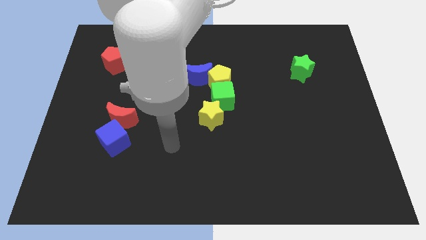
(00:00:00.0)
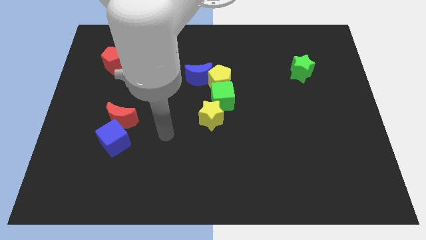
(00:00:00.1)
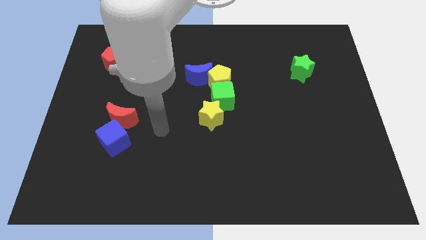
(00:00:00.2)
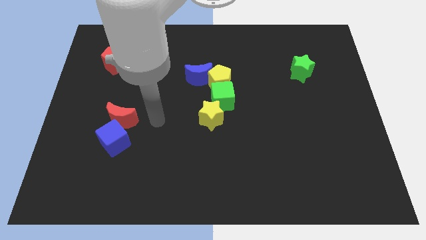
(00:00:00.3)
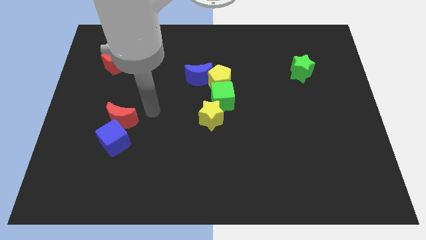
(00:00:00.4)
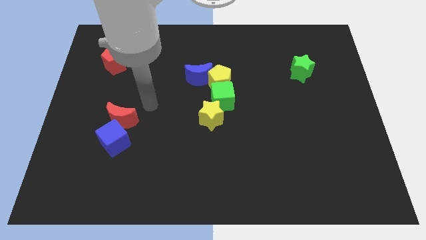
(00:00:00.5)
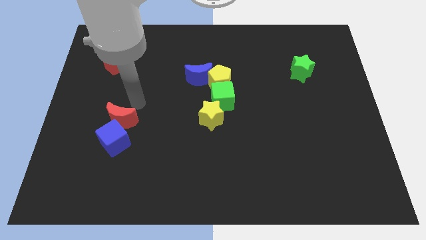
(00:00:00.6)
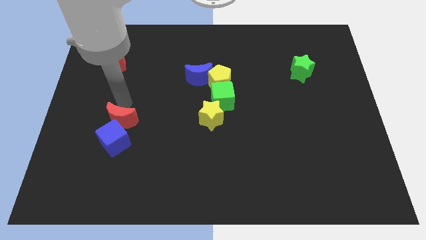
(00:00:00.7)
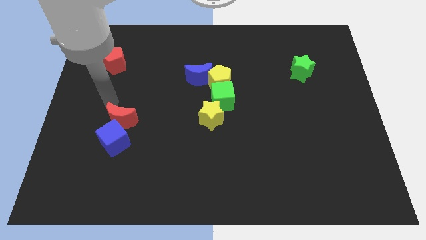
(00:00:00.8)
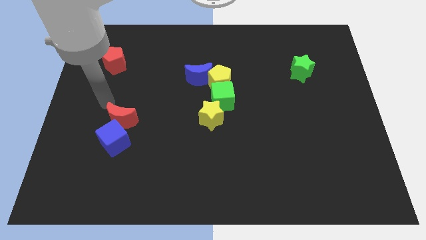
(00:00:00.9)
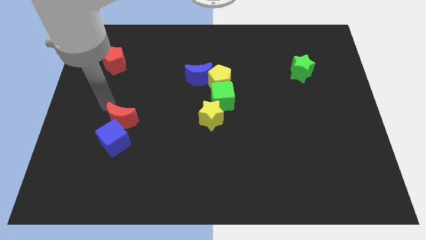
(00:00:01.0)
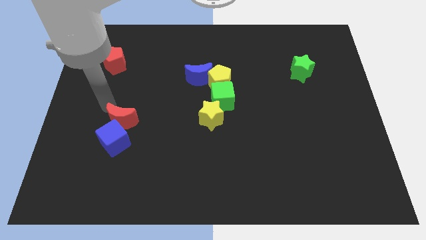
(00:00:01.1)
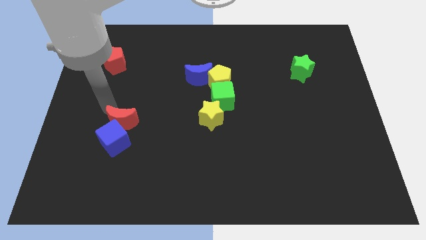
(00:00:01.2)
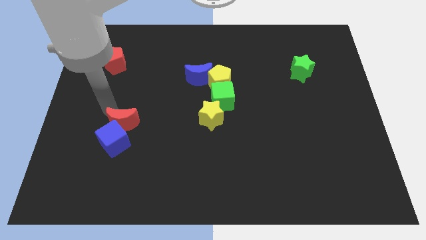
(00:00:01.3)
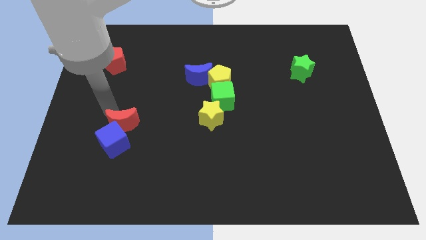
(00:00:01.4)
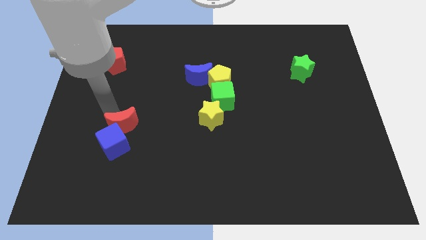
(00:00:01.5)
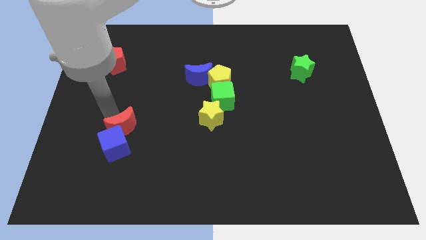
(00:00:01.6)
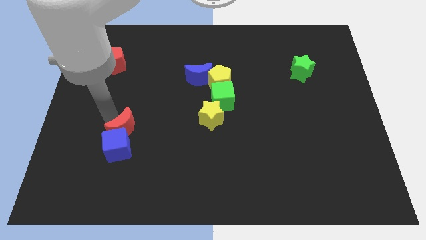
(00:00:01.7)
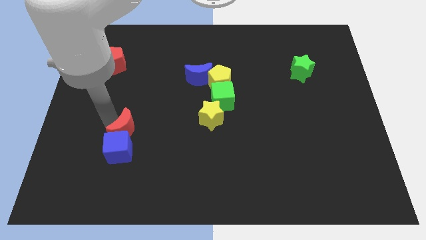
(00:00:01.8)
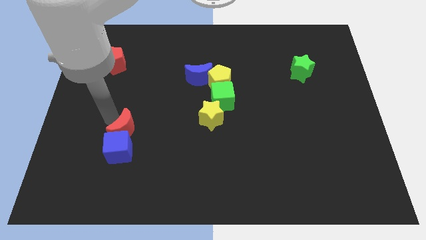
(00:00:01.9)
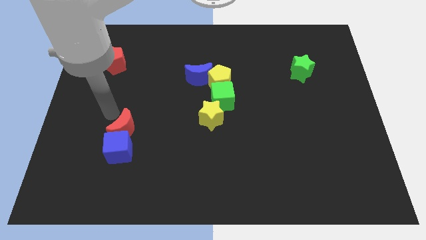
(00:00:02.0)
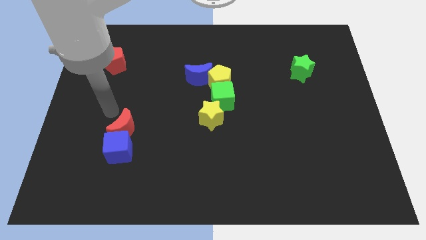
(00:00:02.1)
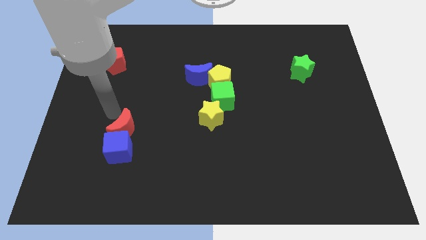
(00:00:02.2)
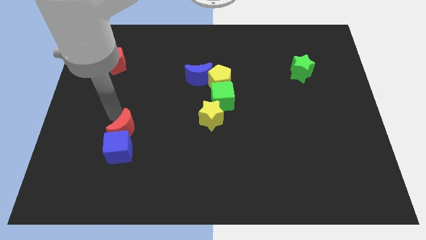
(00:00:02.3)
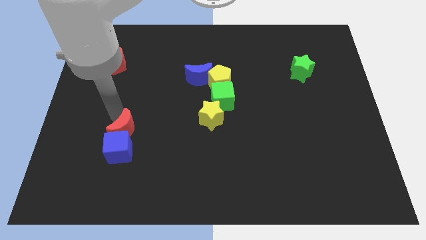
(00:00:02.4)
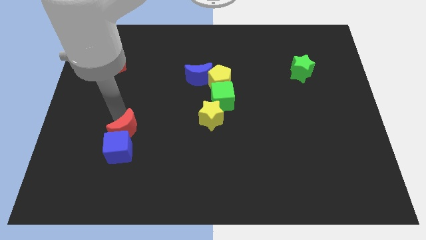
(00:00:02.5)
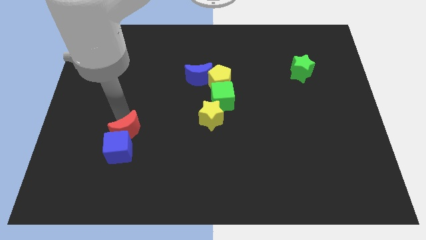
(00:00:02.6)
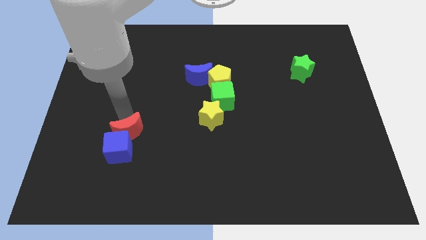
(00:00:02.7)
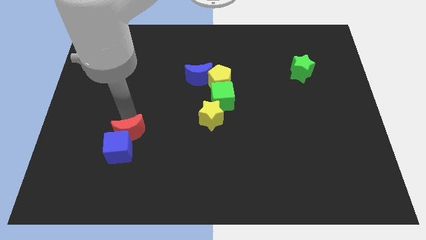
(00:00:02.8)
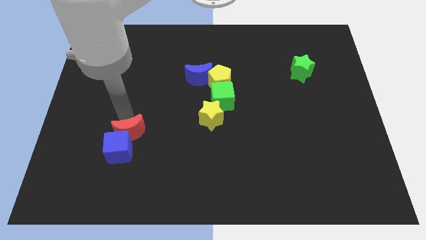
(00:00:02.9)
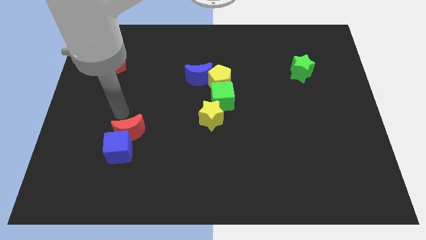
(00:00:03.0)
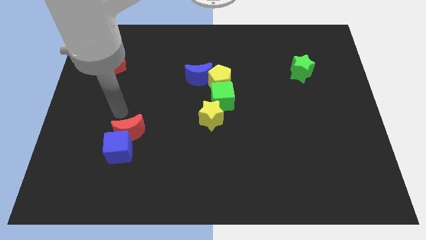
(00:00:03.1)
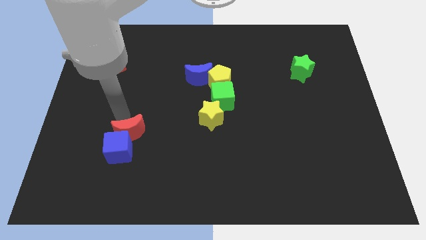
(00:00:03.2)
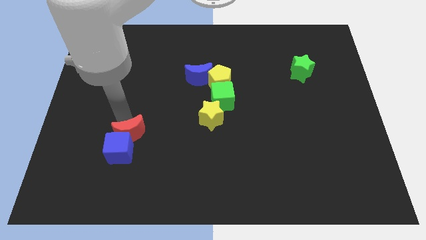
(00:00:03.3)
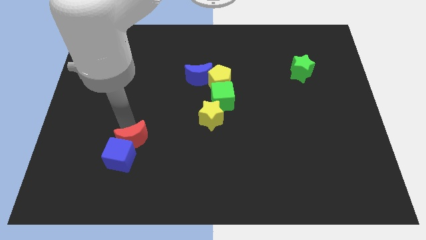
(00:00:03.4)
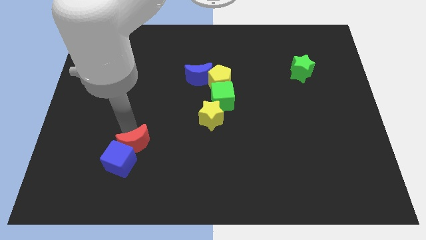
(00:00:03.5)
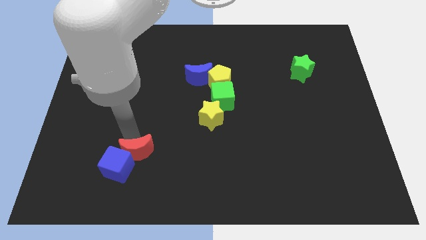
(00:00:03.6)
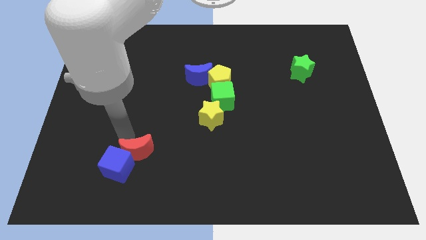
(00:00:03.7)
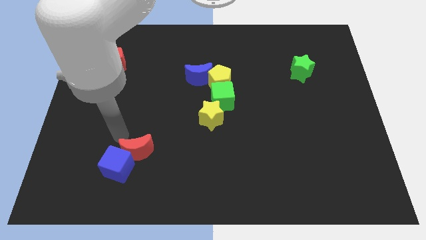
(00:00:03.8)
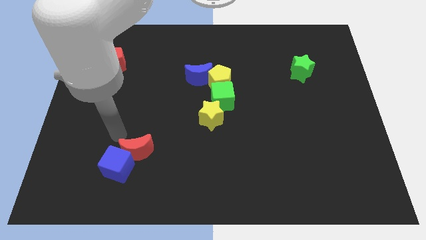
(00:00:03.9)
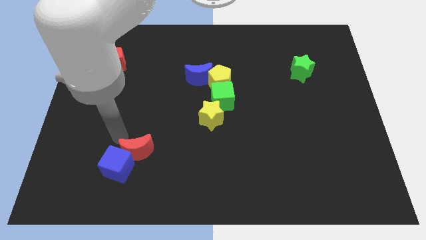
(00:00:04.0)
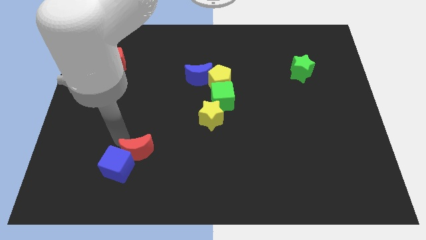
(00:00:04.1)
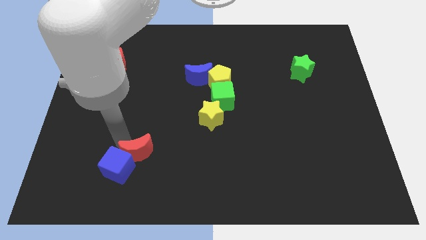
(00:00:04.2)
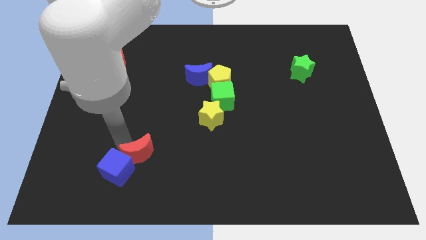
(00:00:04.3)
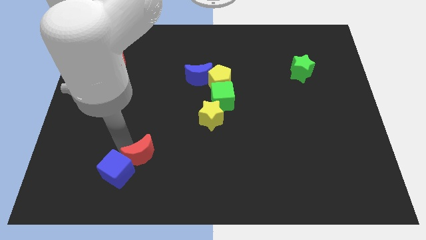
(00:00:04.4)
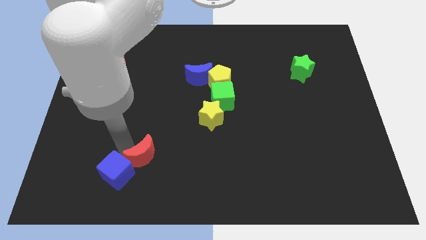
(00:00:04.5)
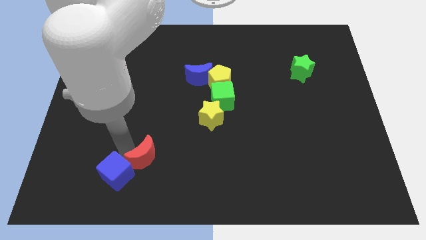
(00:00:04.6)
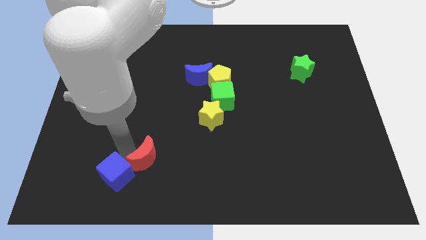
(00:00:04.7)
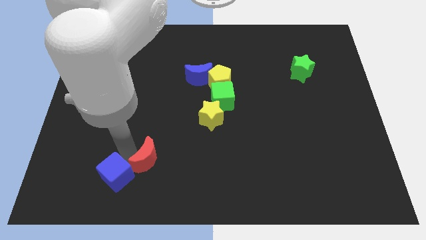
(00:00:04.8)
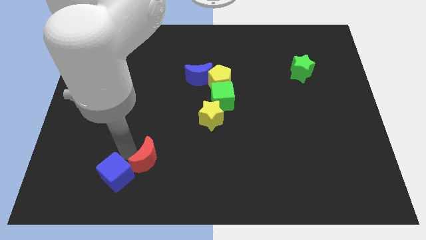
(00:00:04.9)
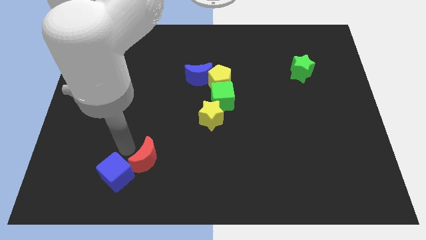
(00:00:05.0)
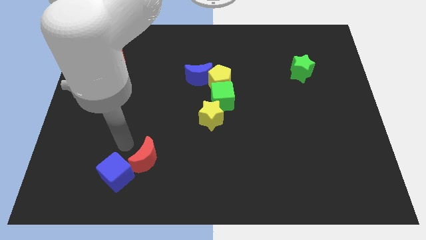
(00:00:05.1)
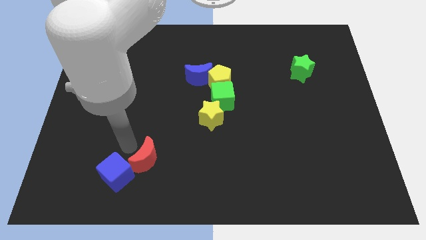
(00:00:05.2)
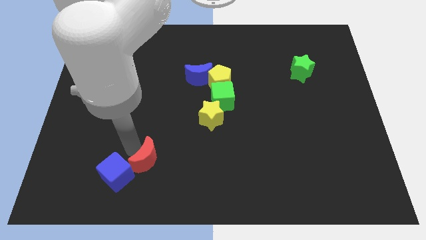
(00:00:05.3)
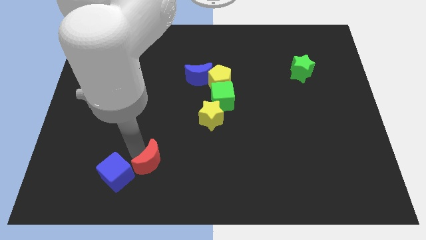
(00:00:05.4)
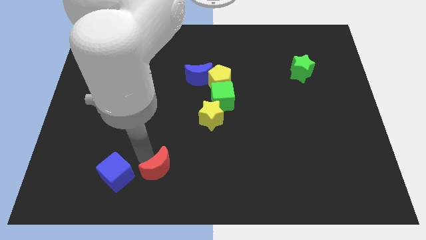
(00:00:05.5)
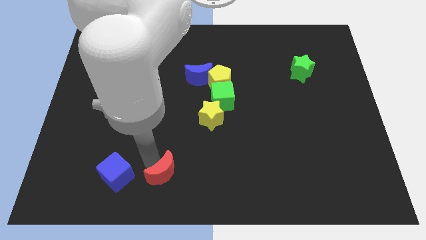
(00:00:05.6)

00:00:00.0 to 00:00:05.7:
move the red moon to the bottom side
